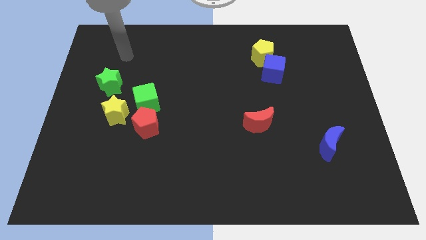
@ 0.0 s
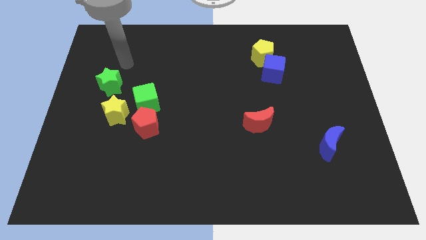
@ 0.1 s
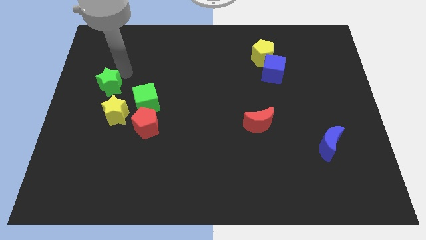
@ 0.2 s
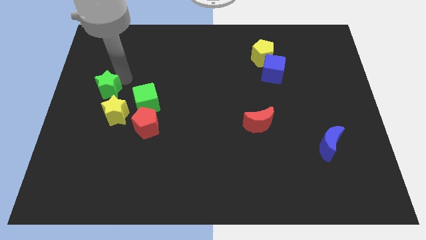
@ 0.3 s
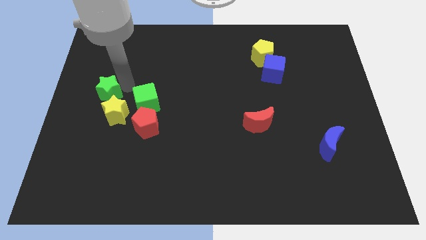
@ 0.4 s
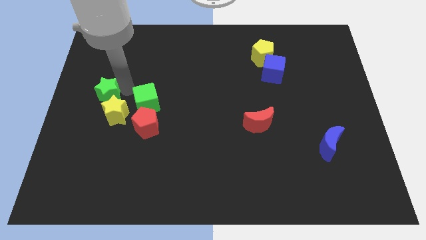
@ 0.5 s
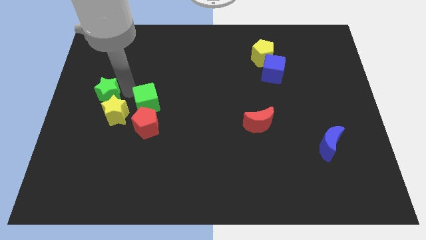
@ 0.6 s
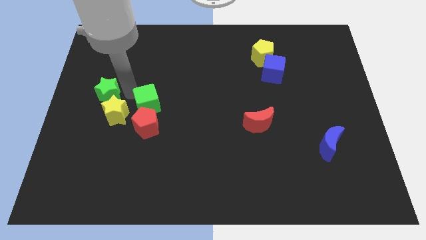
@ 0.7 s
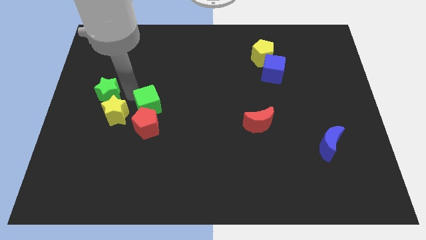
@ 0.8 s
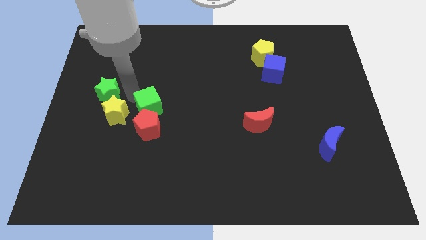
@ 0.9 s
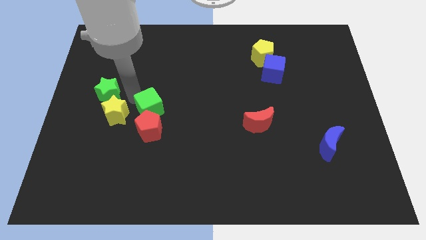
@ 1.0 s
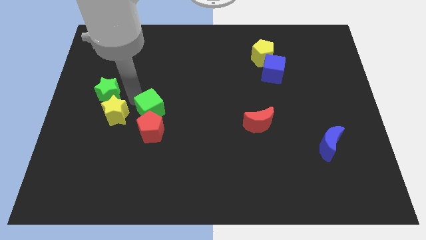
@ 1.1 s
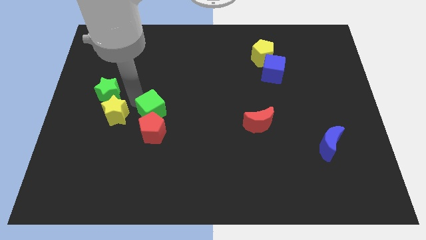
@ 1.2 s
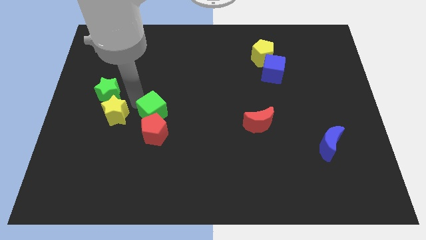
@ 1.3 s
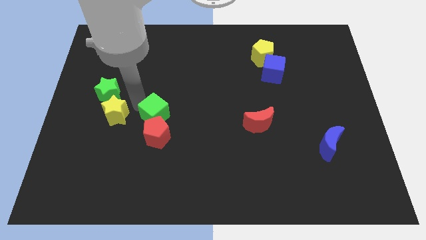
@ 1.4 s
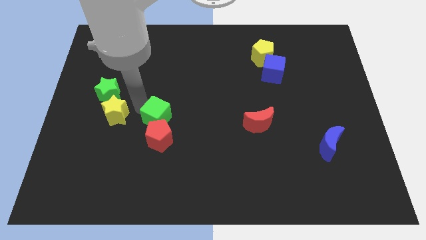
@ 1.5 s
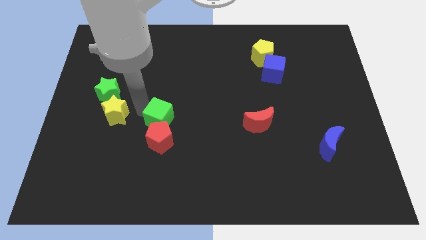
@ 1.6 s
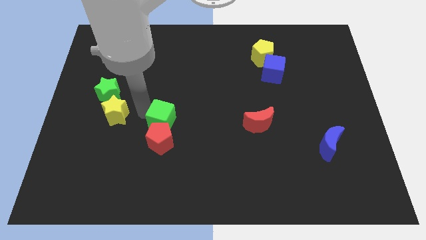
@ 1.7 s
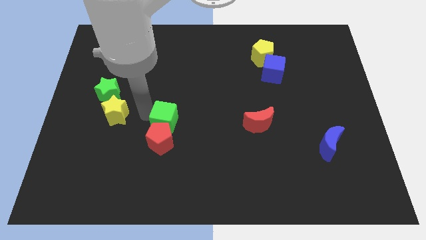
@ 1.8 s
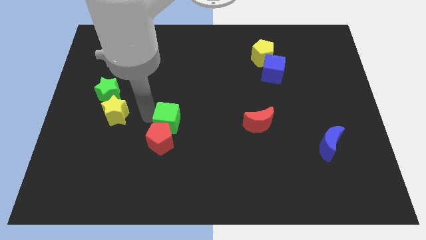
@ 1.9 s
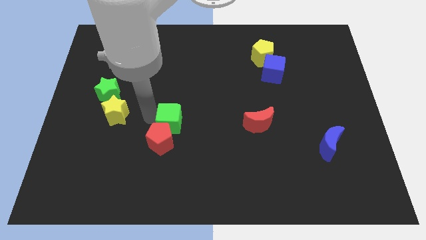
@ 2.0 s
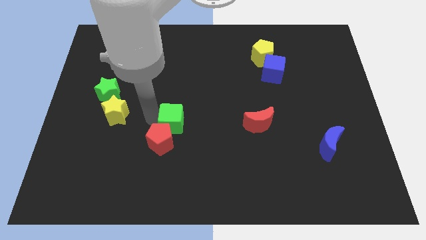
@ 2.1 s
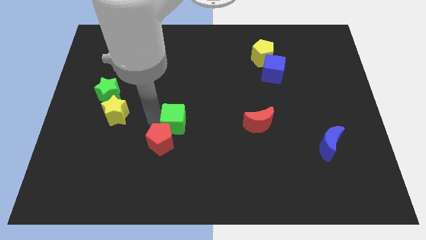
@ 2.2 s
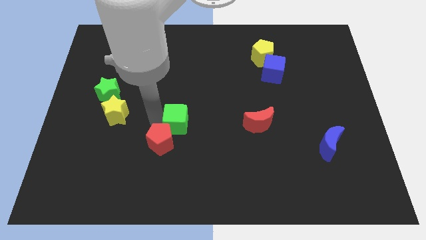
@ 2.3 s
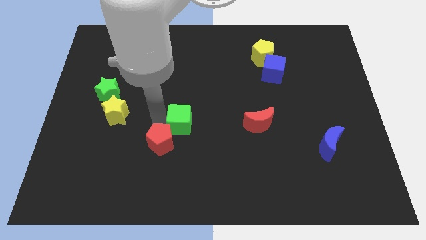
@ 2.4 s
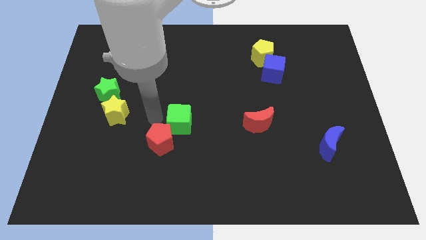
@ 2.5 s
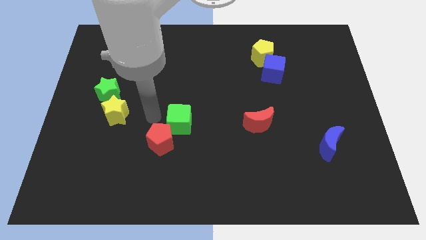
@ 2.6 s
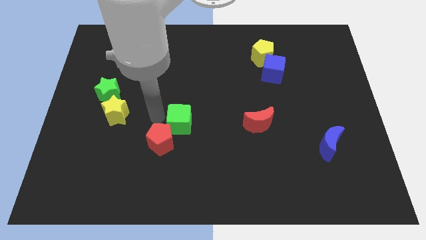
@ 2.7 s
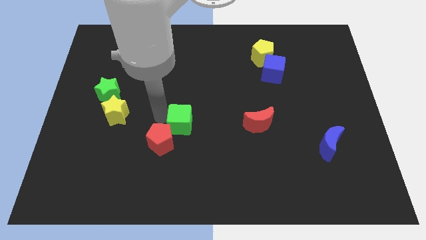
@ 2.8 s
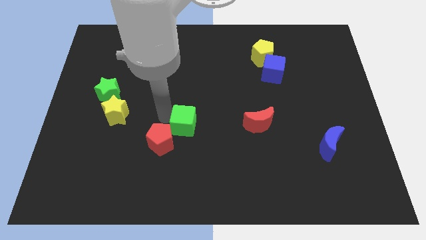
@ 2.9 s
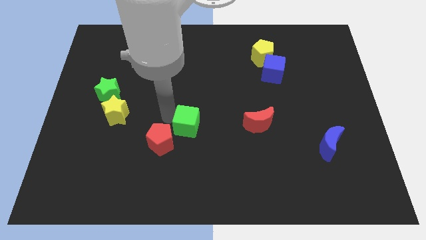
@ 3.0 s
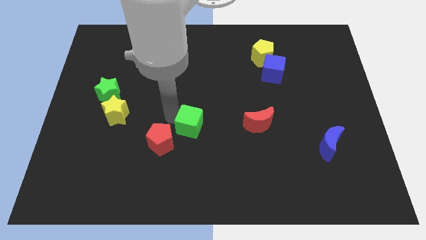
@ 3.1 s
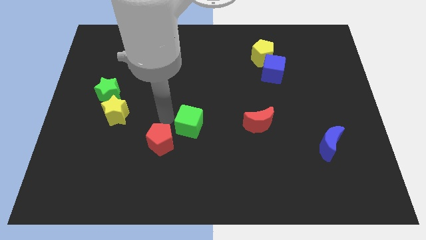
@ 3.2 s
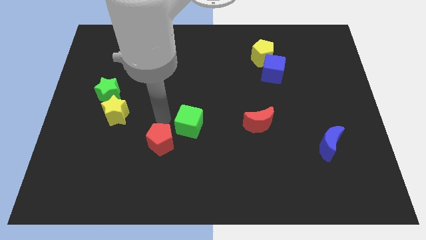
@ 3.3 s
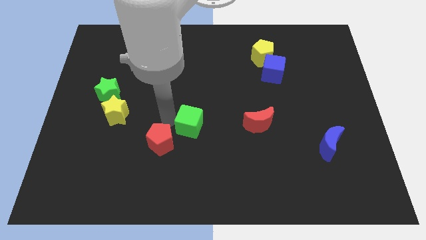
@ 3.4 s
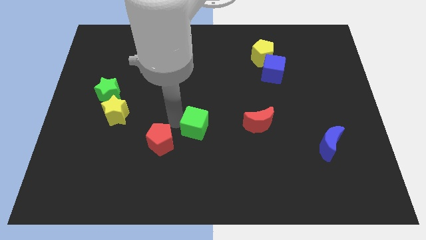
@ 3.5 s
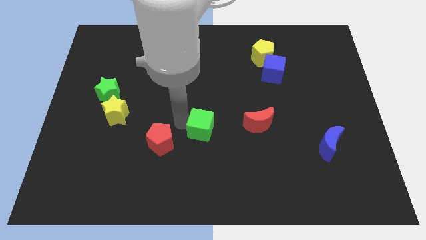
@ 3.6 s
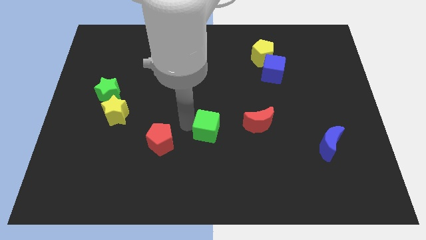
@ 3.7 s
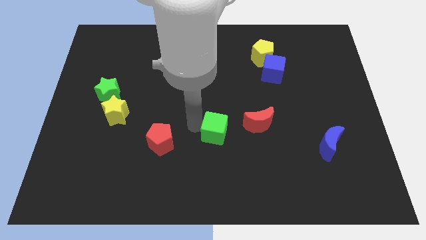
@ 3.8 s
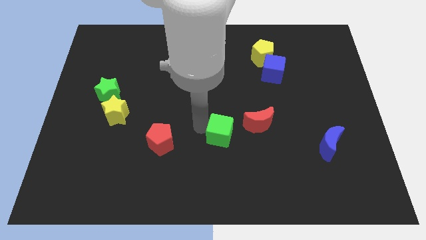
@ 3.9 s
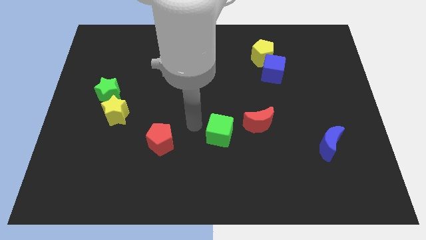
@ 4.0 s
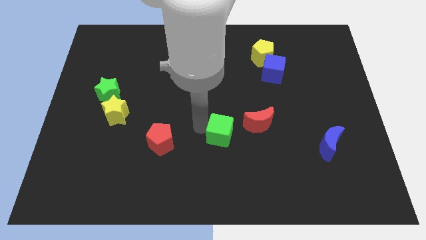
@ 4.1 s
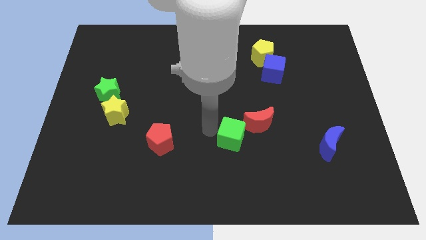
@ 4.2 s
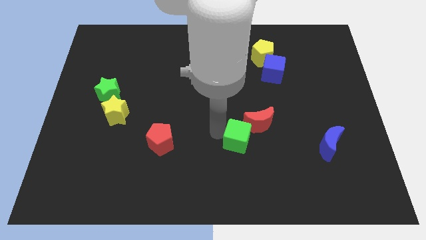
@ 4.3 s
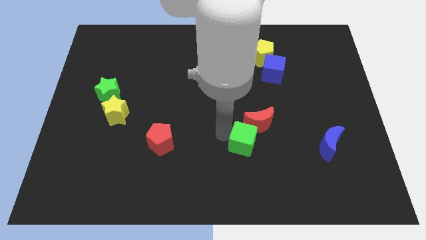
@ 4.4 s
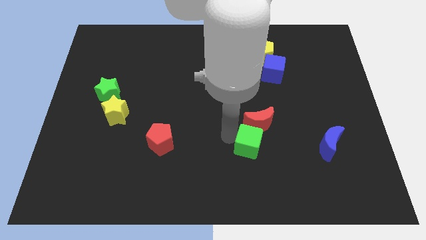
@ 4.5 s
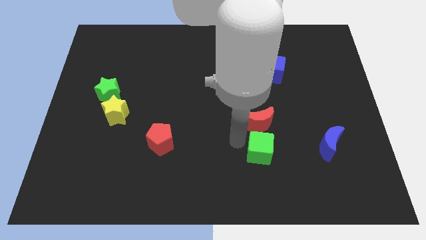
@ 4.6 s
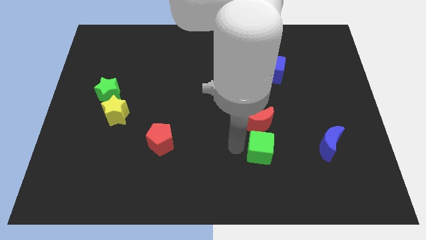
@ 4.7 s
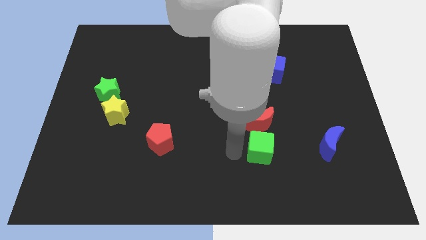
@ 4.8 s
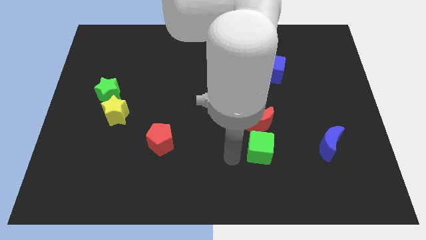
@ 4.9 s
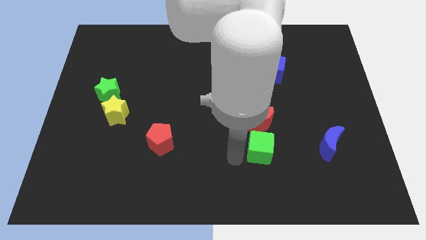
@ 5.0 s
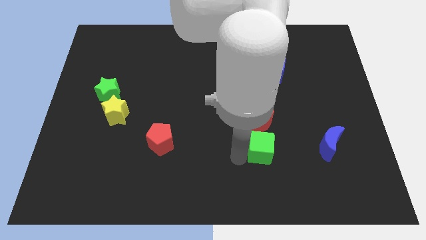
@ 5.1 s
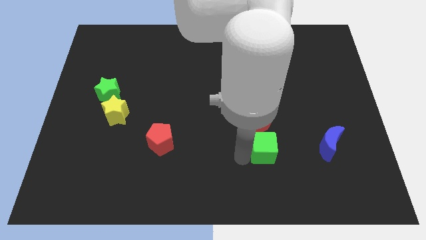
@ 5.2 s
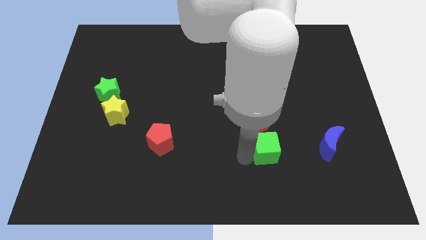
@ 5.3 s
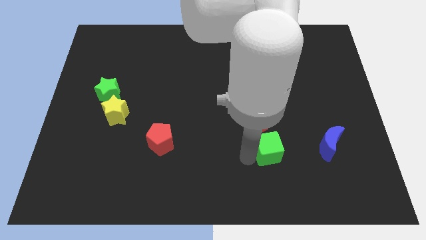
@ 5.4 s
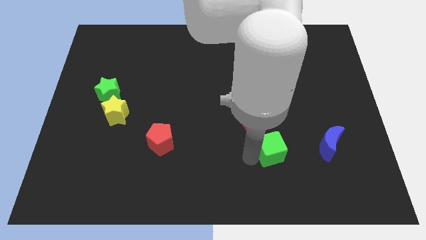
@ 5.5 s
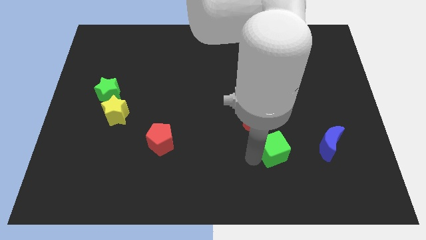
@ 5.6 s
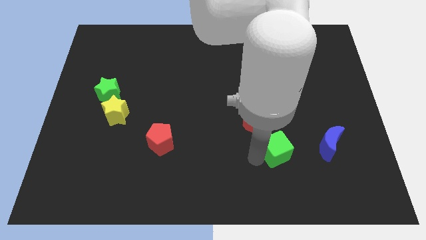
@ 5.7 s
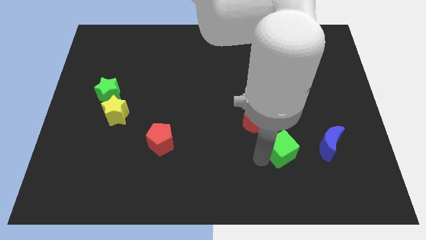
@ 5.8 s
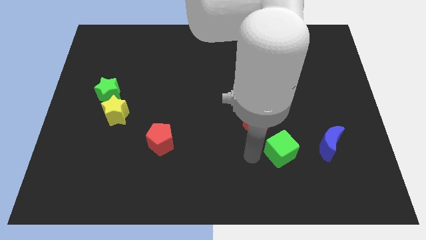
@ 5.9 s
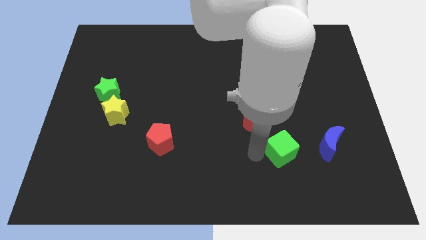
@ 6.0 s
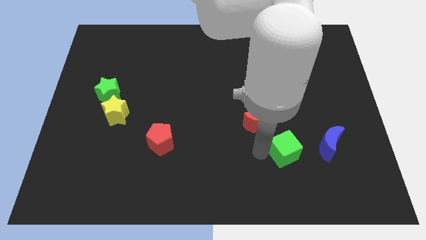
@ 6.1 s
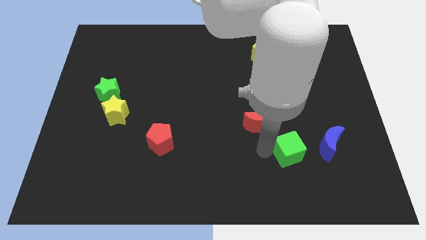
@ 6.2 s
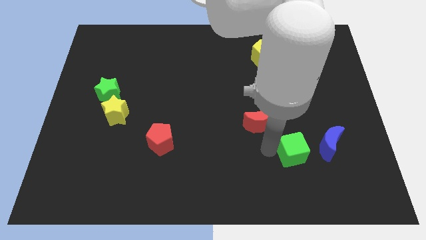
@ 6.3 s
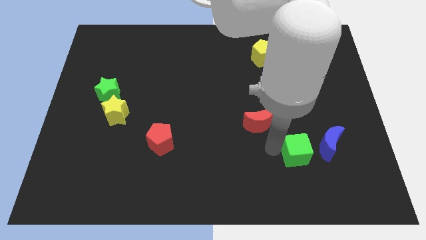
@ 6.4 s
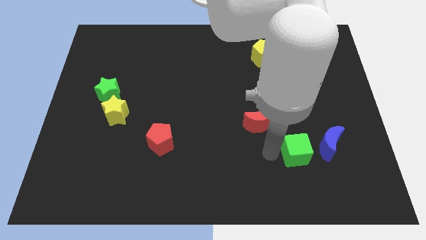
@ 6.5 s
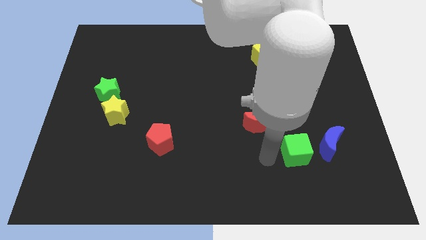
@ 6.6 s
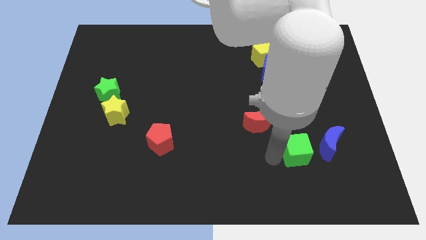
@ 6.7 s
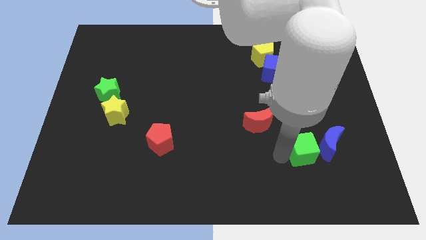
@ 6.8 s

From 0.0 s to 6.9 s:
slide the green cube close to the blue moon
